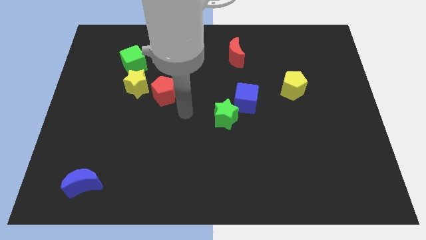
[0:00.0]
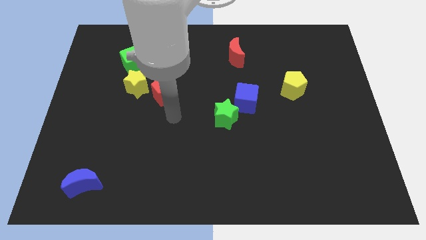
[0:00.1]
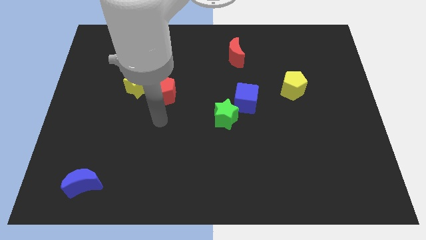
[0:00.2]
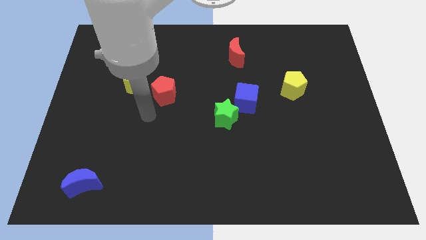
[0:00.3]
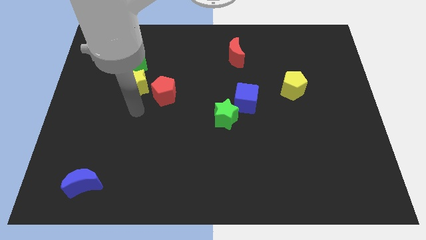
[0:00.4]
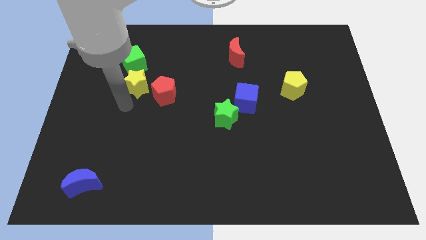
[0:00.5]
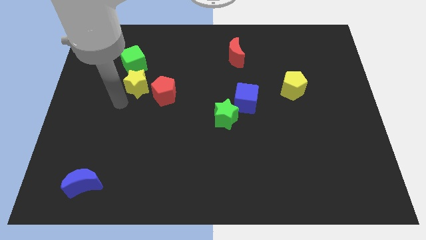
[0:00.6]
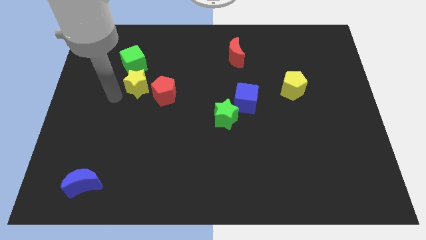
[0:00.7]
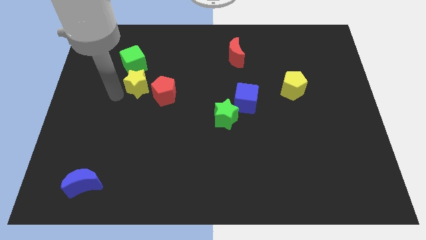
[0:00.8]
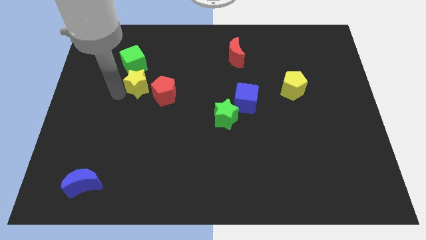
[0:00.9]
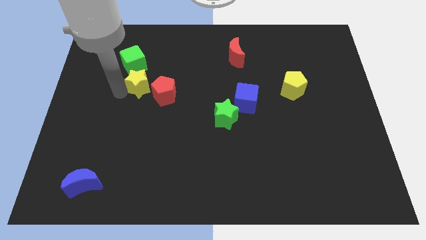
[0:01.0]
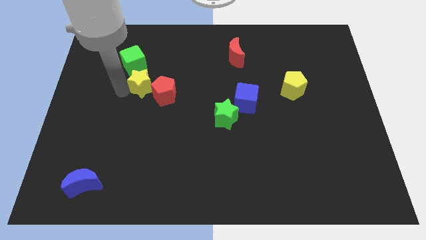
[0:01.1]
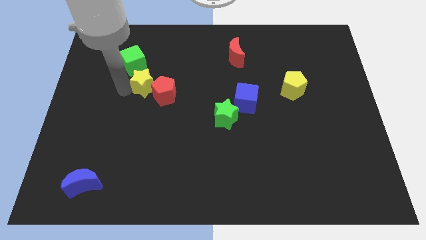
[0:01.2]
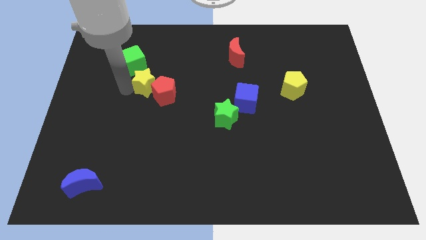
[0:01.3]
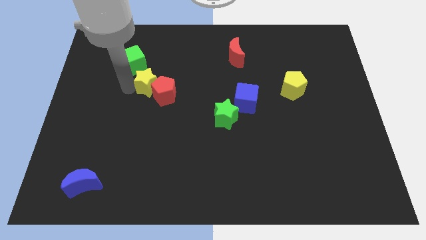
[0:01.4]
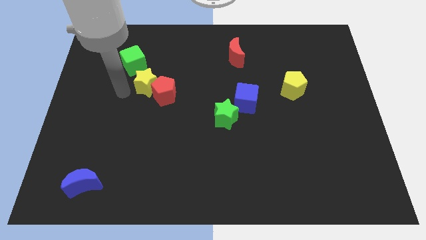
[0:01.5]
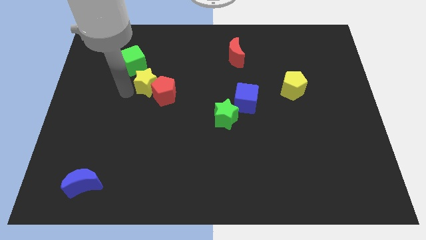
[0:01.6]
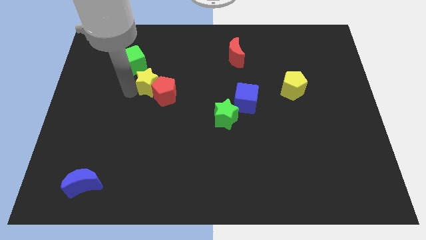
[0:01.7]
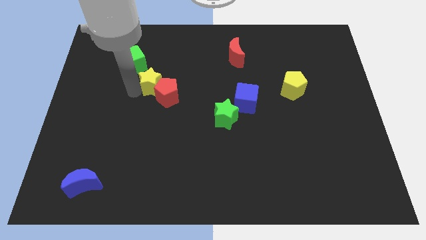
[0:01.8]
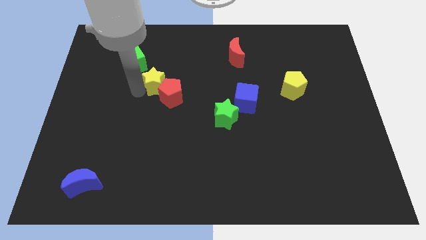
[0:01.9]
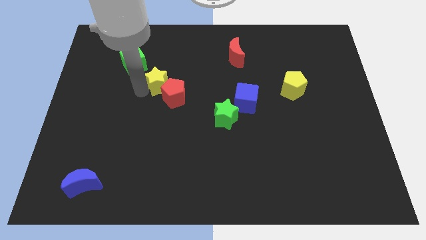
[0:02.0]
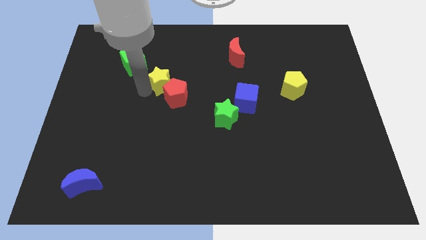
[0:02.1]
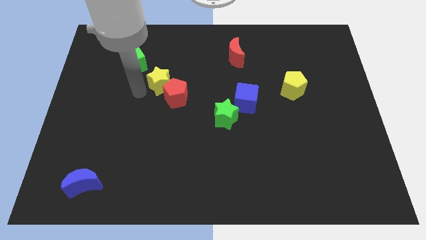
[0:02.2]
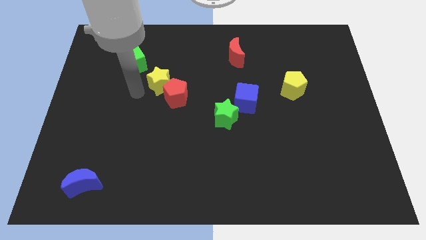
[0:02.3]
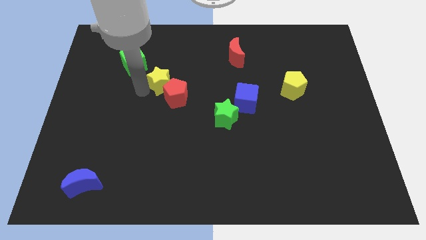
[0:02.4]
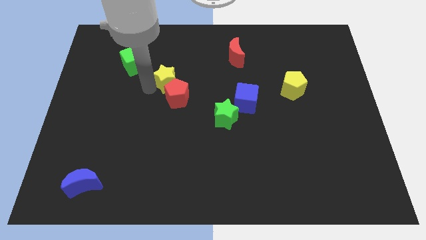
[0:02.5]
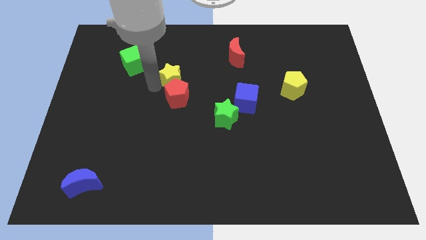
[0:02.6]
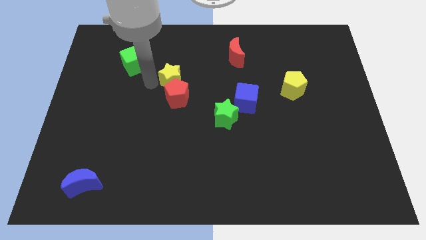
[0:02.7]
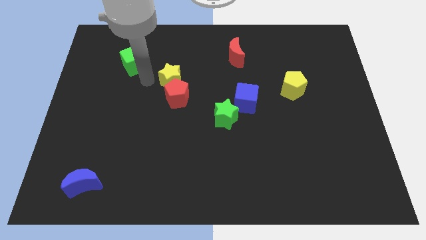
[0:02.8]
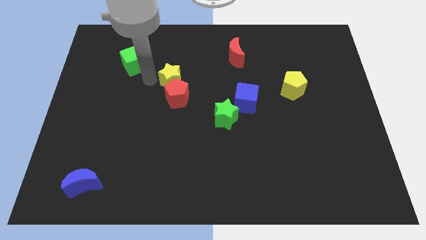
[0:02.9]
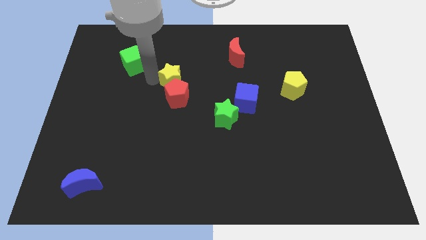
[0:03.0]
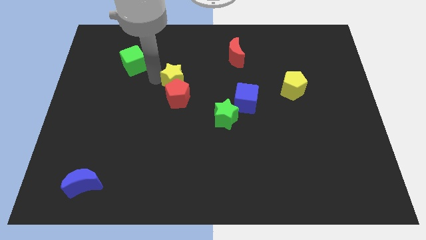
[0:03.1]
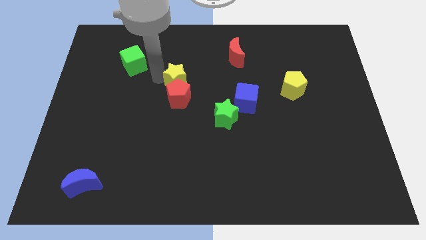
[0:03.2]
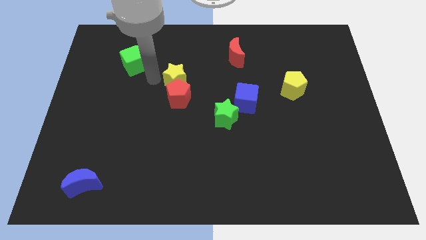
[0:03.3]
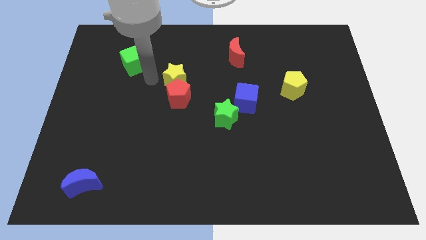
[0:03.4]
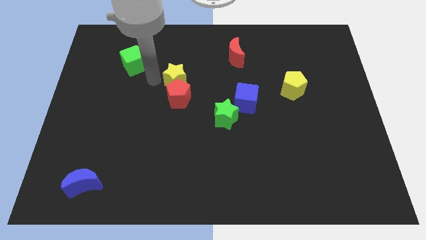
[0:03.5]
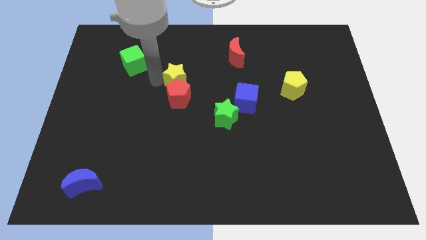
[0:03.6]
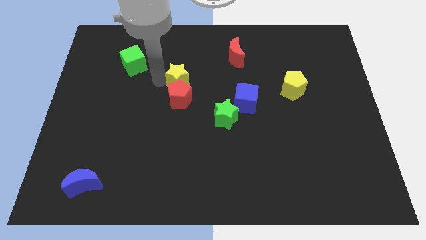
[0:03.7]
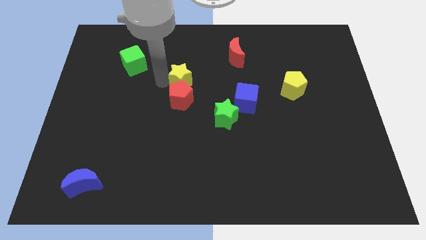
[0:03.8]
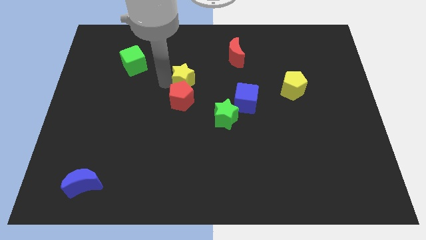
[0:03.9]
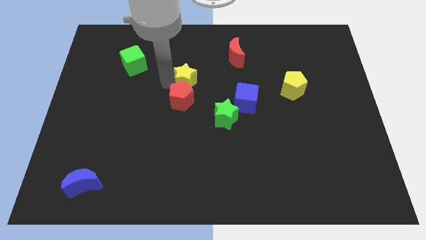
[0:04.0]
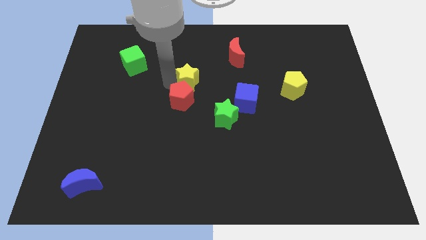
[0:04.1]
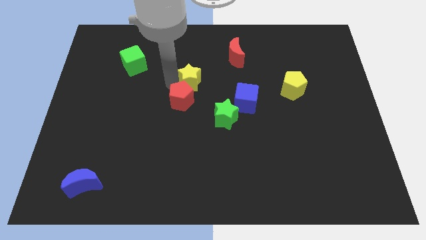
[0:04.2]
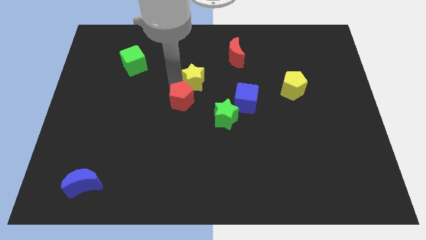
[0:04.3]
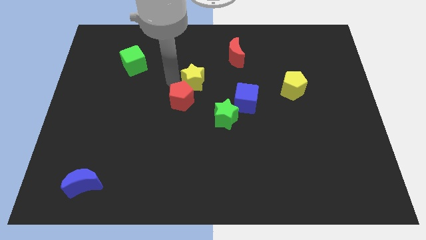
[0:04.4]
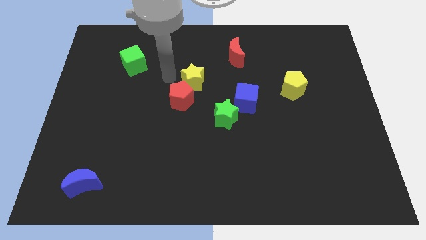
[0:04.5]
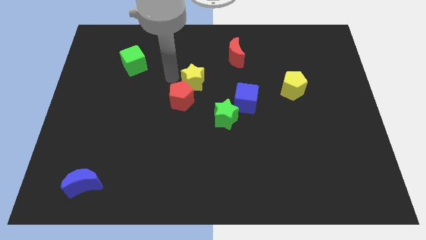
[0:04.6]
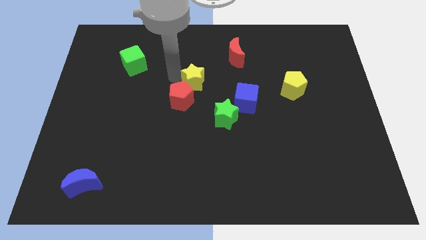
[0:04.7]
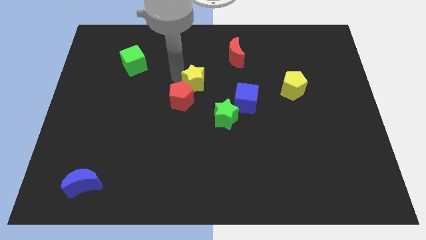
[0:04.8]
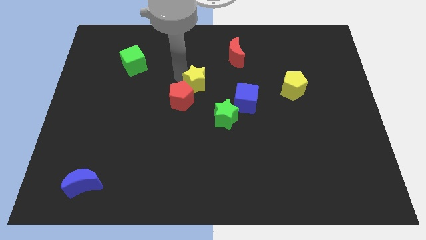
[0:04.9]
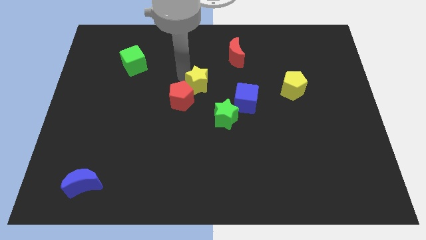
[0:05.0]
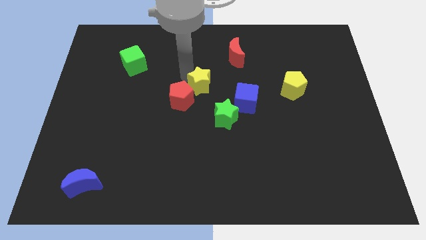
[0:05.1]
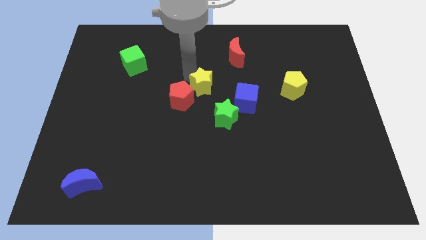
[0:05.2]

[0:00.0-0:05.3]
move the yellow star to the top left of the blue cube

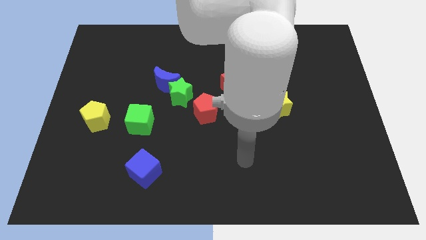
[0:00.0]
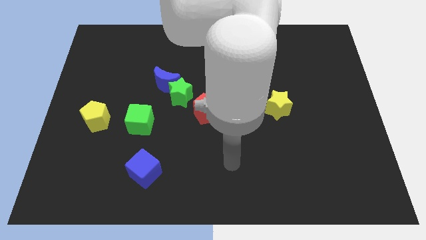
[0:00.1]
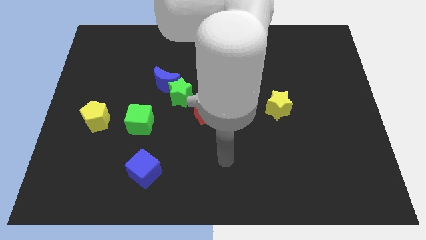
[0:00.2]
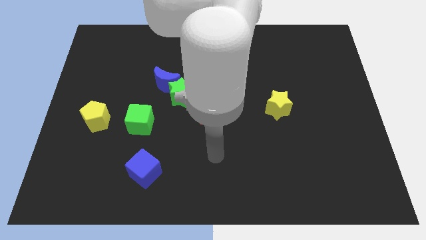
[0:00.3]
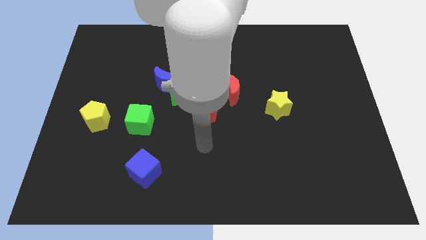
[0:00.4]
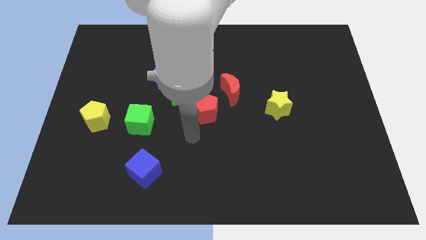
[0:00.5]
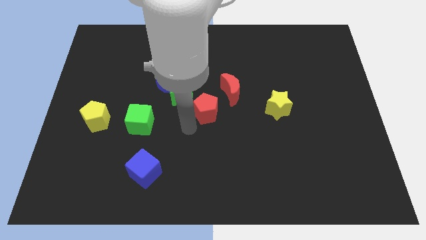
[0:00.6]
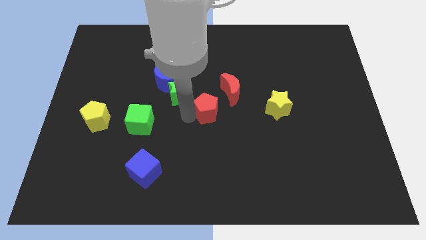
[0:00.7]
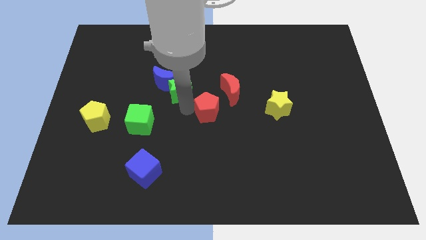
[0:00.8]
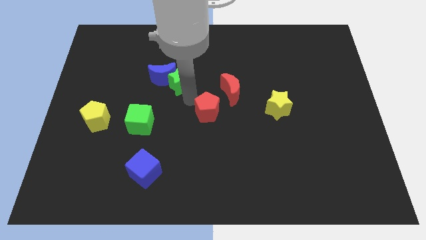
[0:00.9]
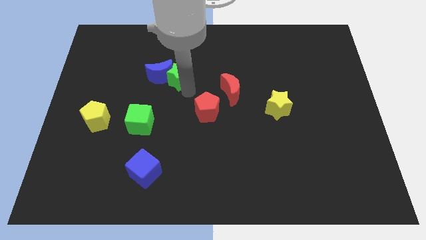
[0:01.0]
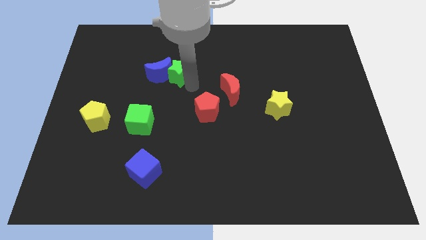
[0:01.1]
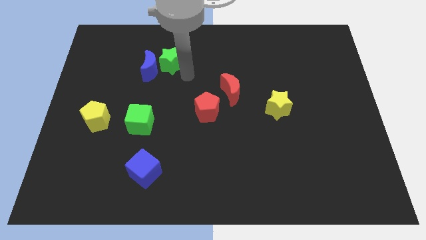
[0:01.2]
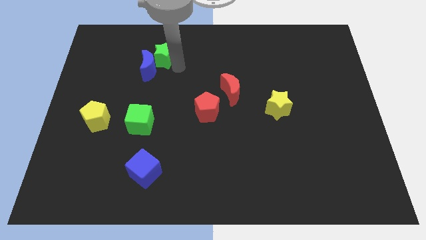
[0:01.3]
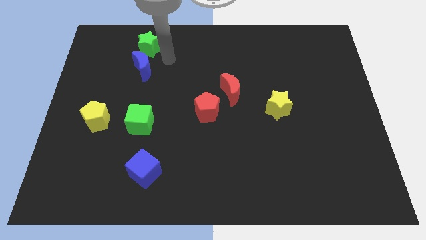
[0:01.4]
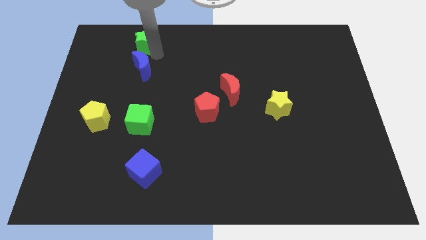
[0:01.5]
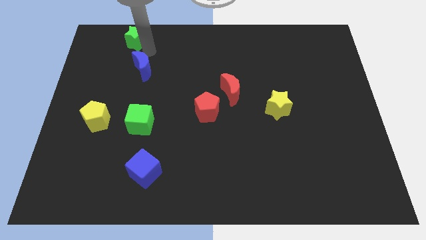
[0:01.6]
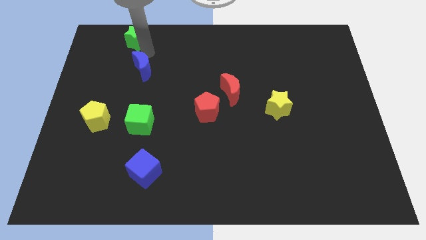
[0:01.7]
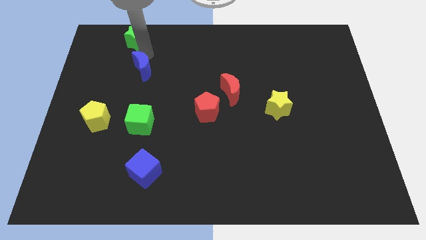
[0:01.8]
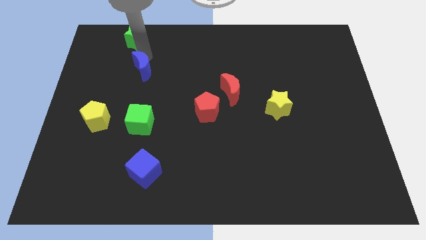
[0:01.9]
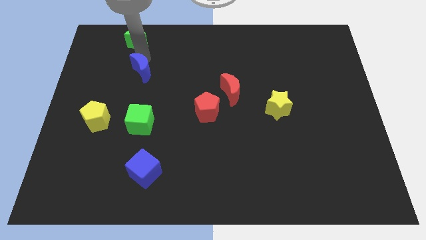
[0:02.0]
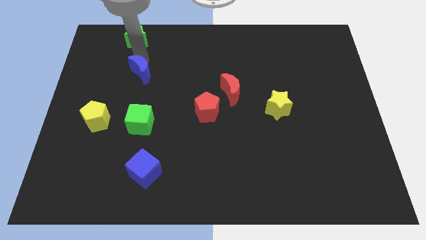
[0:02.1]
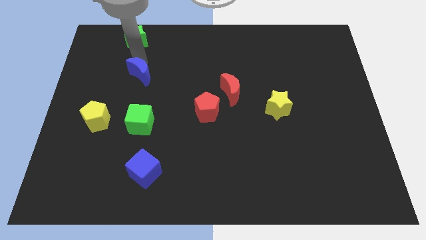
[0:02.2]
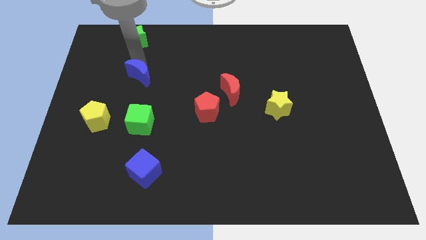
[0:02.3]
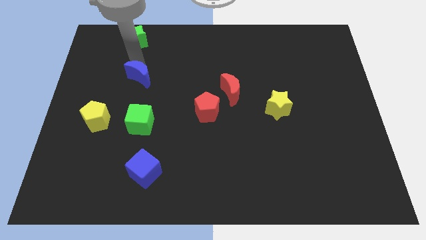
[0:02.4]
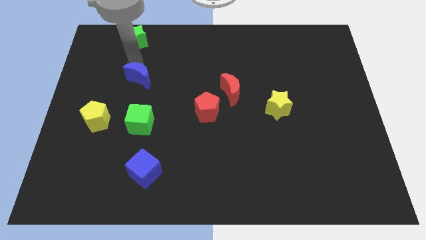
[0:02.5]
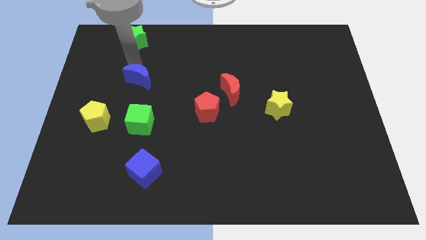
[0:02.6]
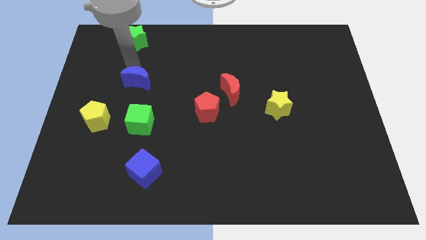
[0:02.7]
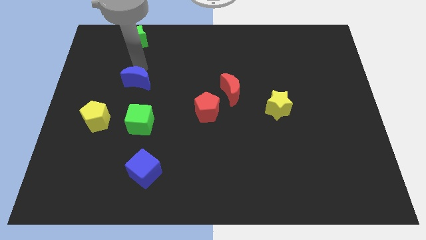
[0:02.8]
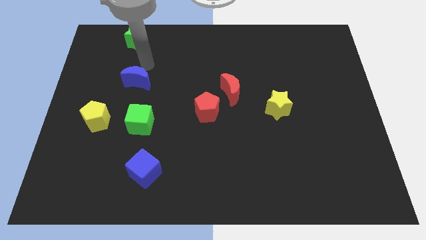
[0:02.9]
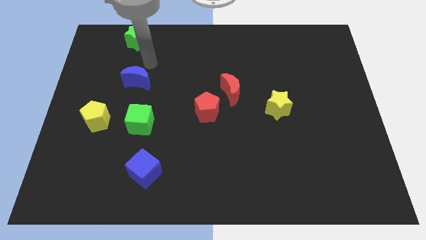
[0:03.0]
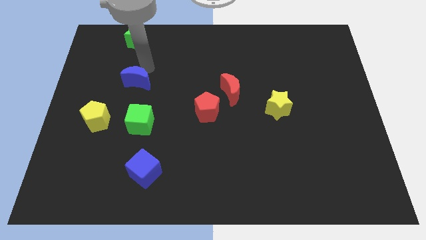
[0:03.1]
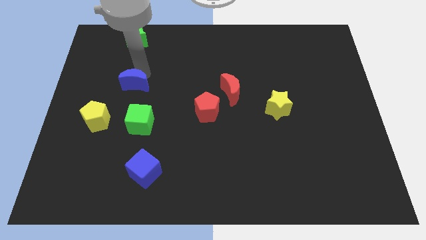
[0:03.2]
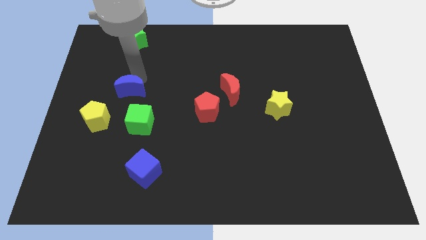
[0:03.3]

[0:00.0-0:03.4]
put the blue moon diagonally up and to the left of the green cube
